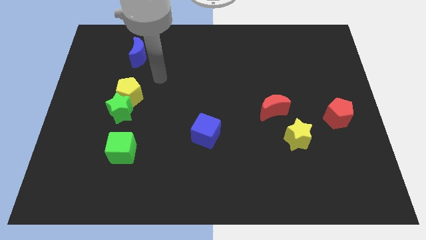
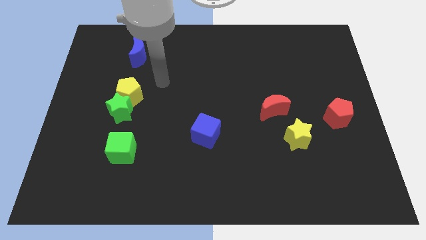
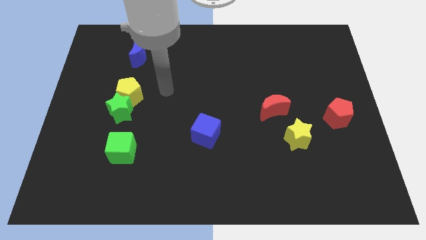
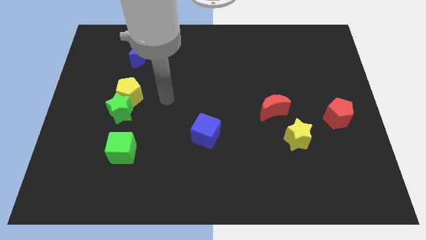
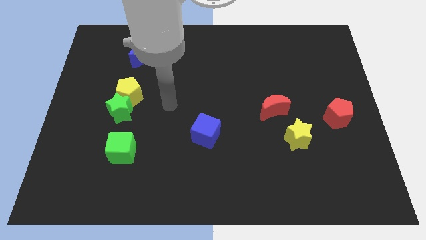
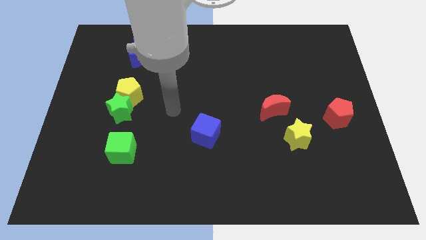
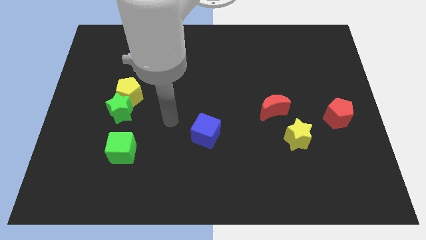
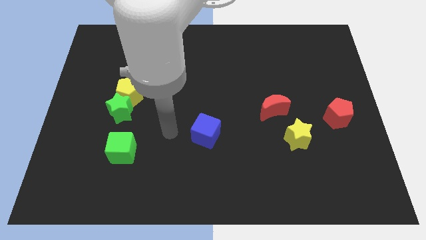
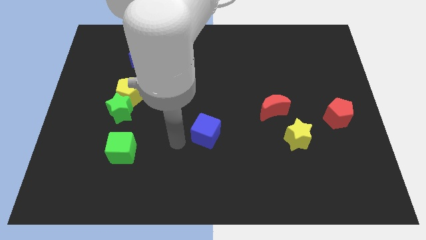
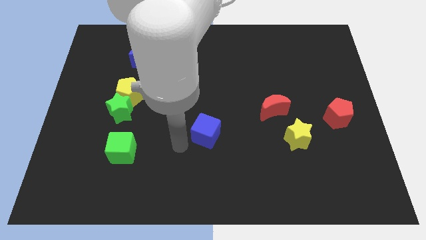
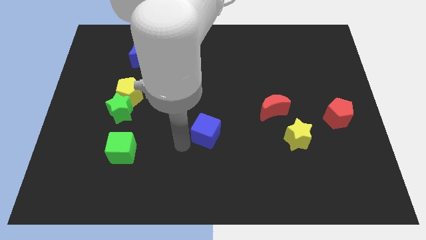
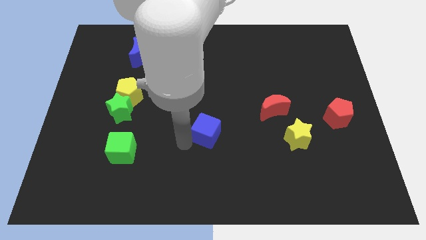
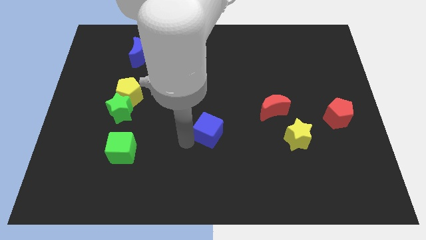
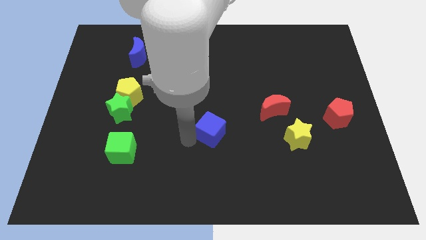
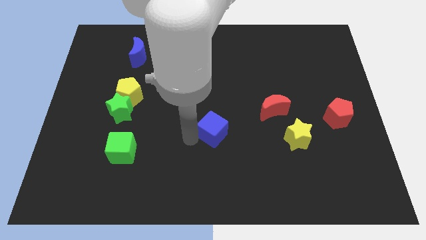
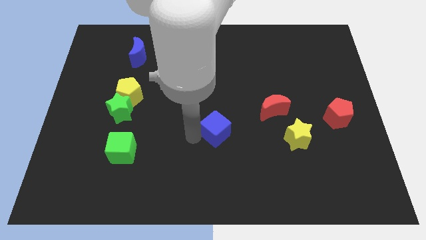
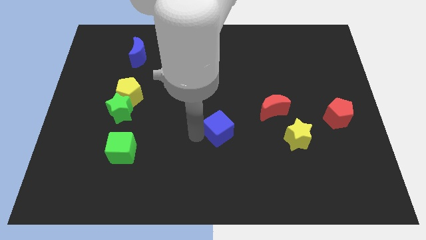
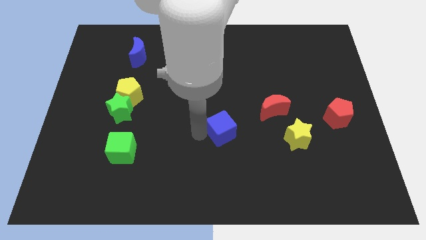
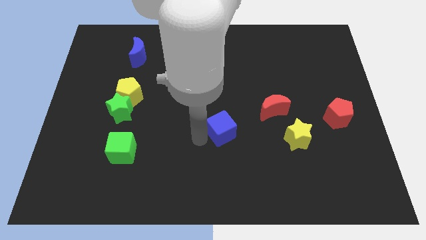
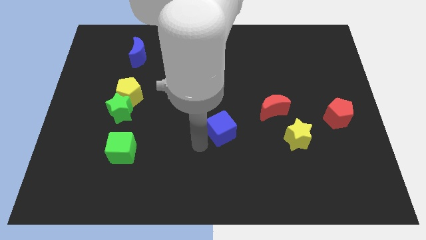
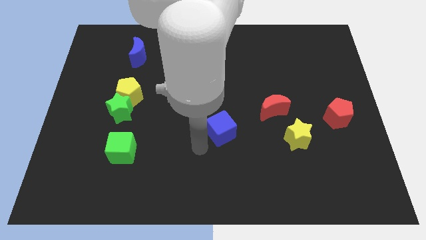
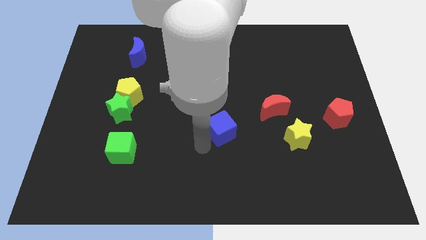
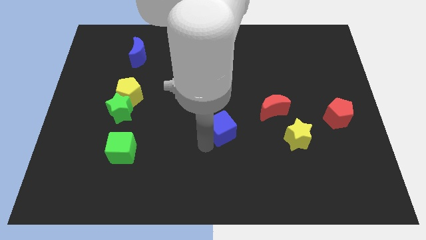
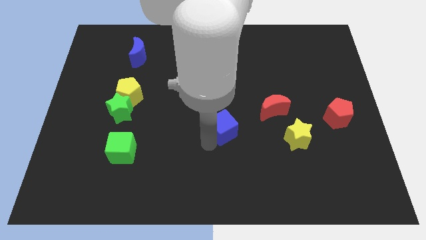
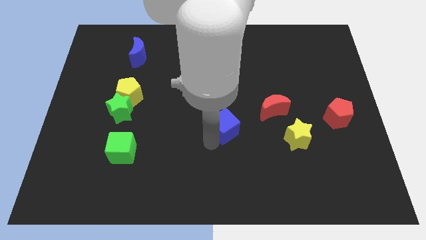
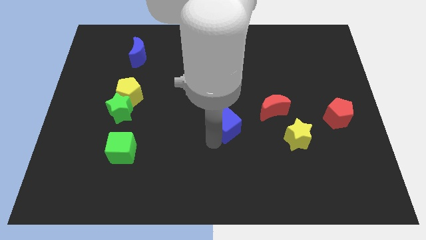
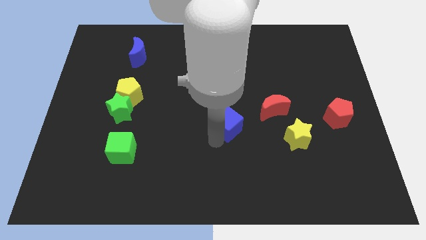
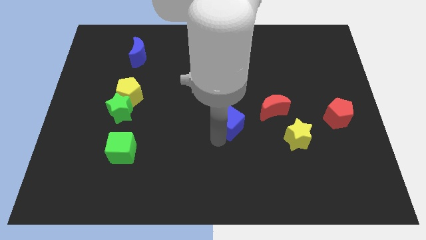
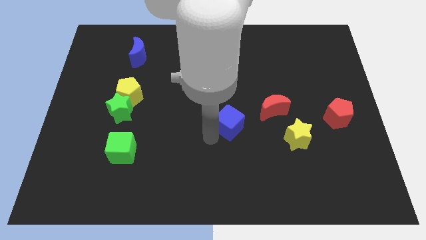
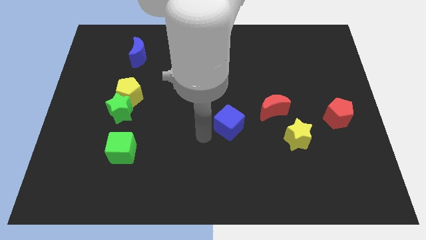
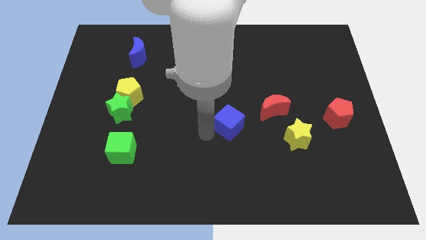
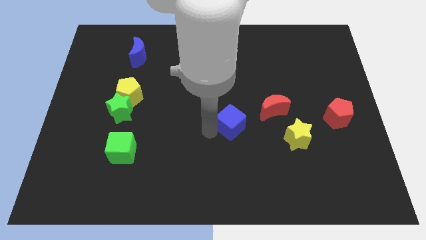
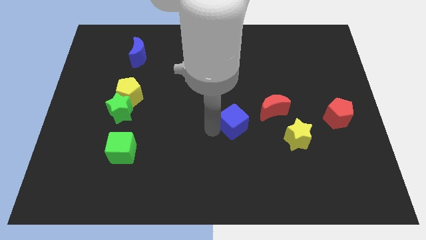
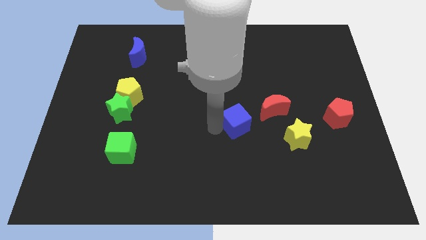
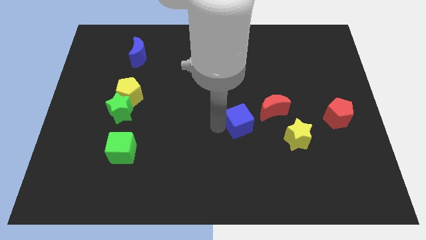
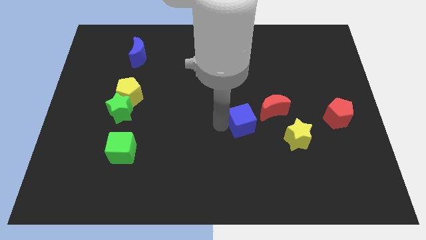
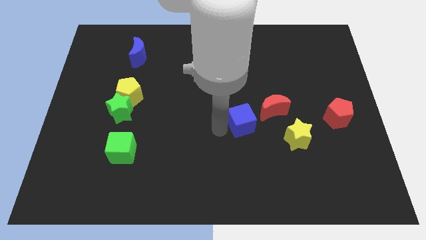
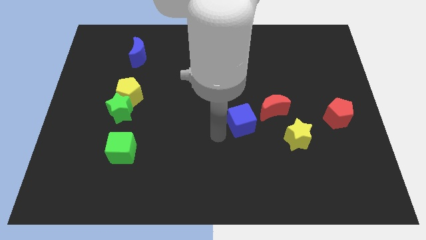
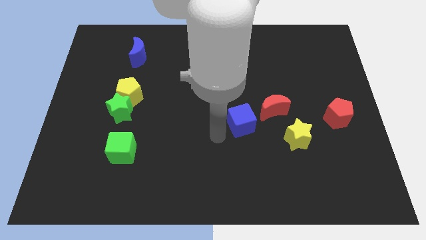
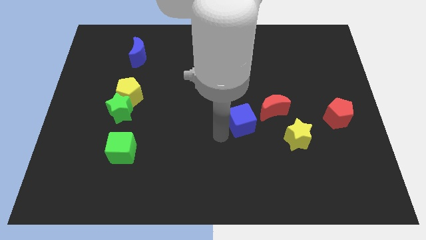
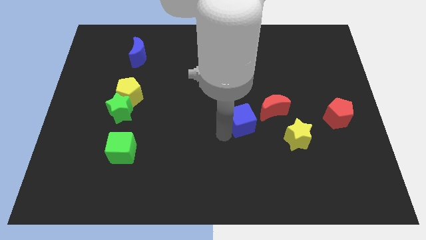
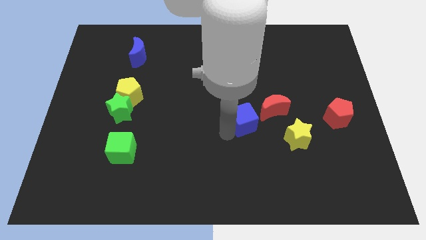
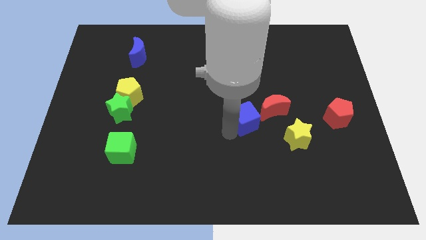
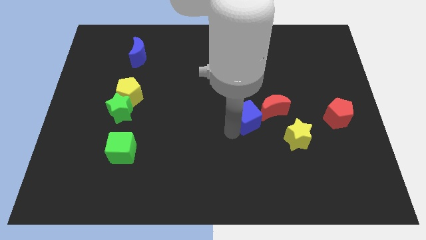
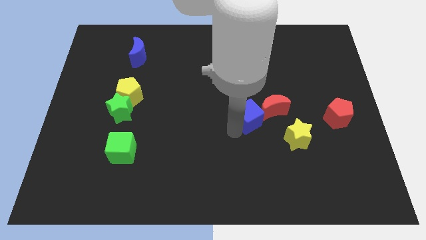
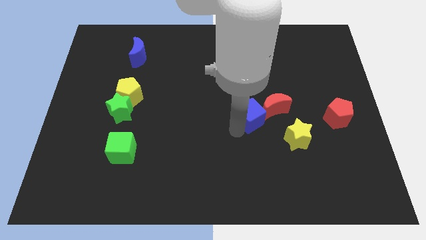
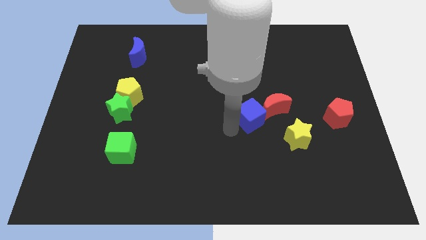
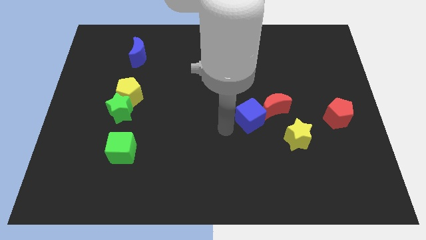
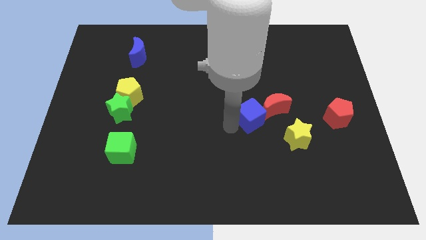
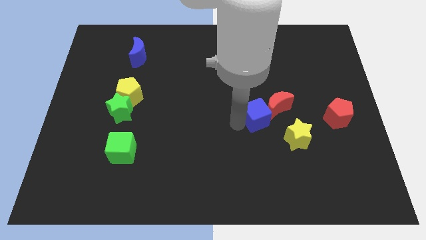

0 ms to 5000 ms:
move the blue cube to the red moon

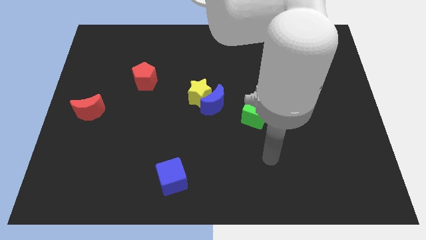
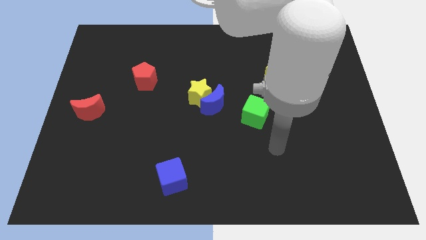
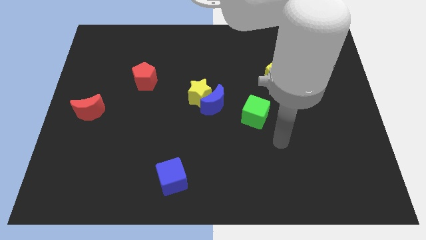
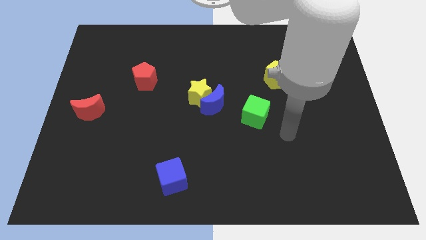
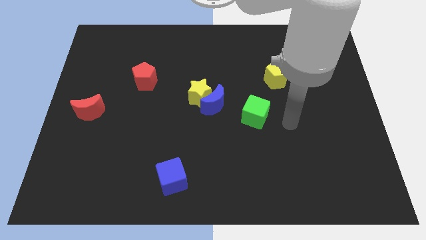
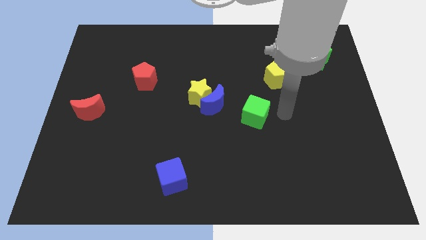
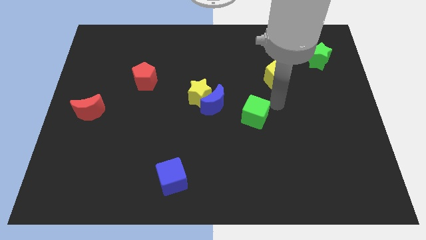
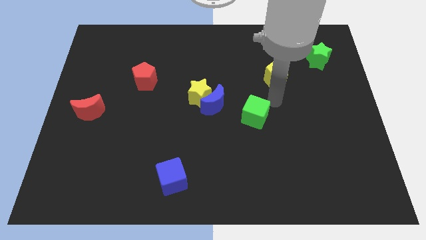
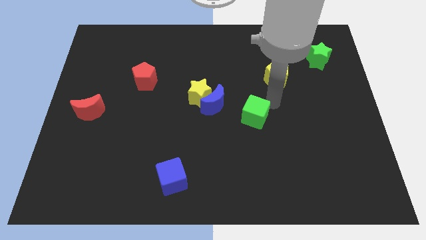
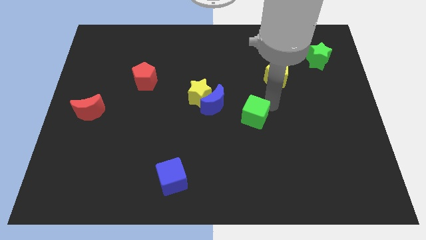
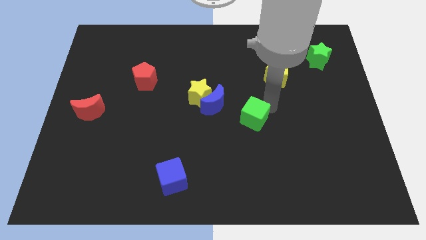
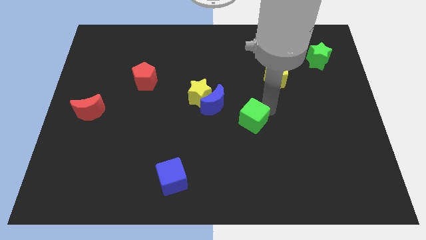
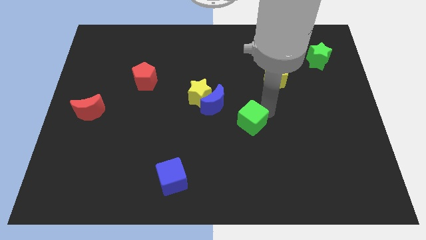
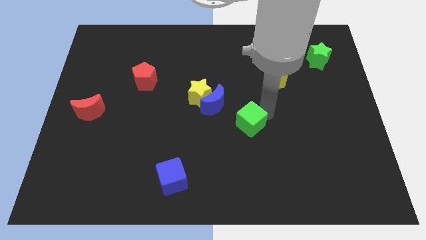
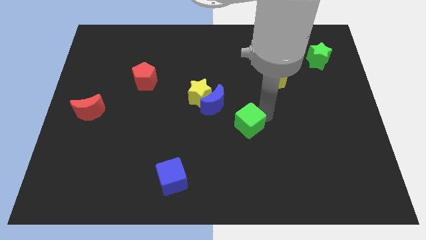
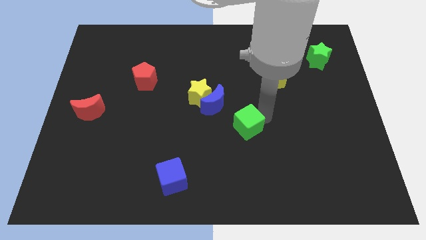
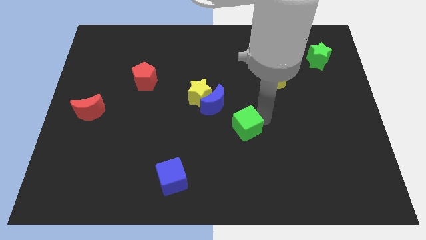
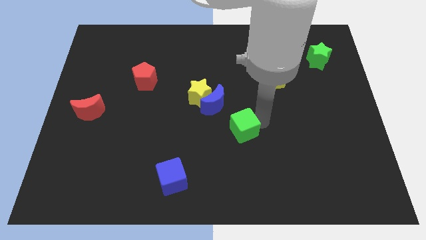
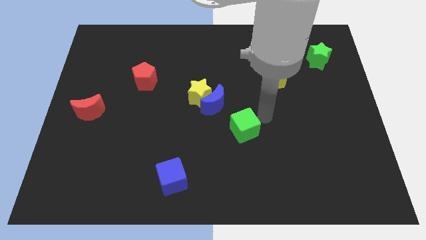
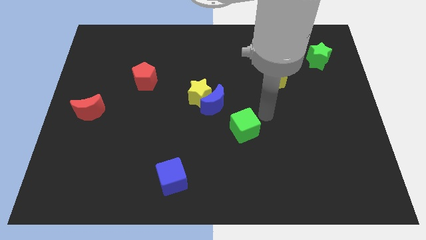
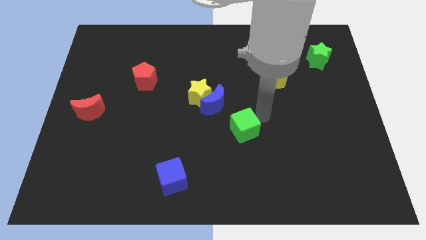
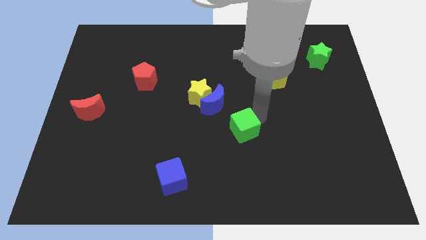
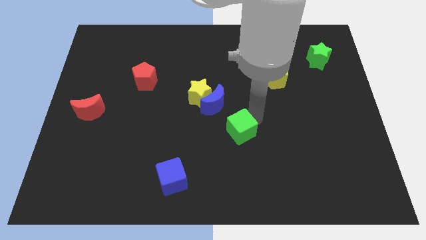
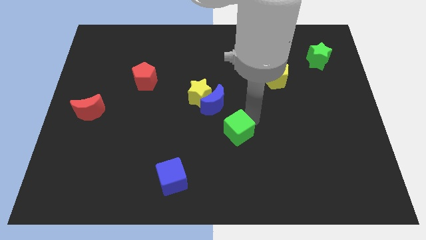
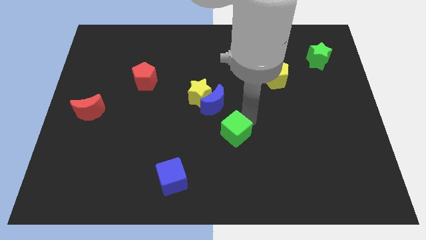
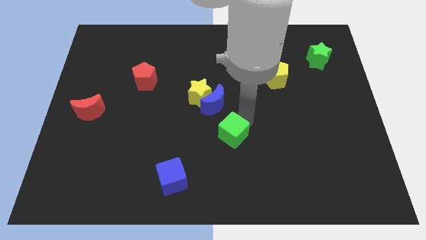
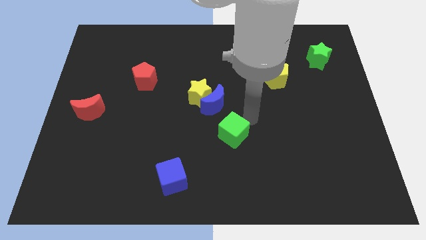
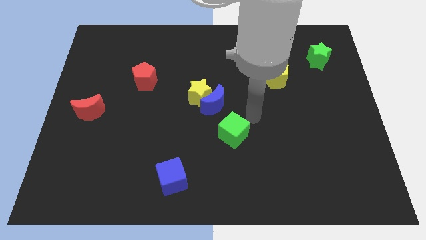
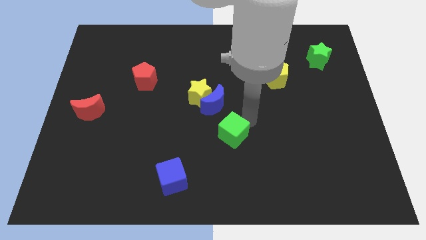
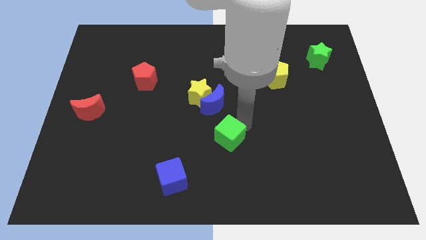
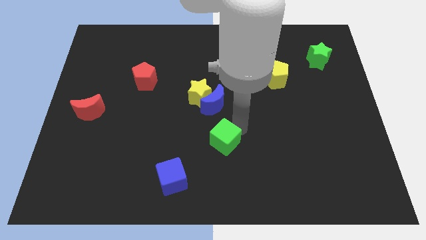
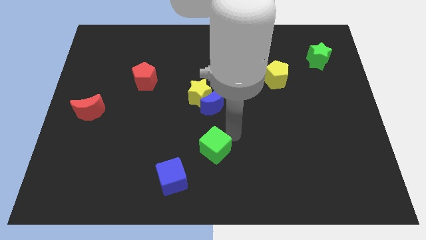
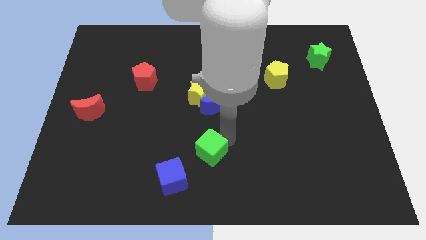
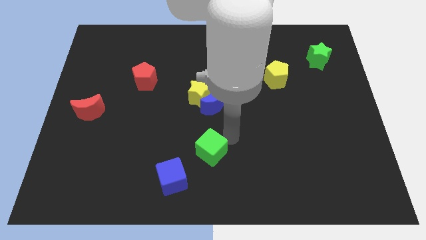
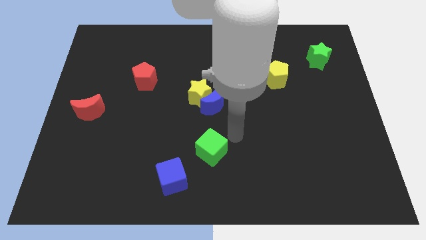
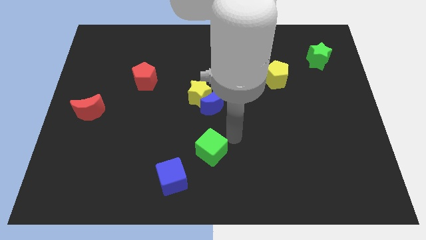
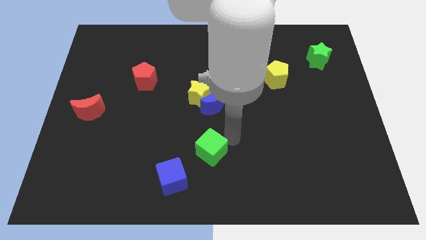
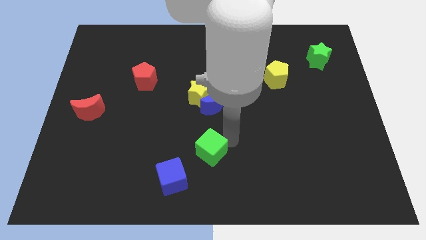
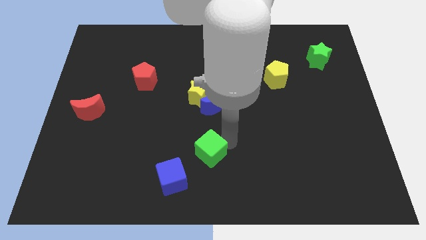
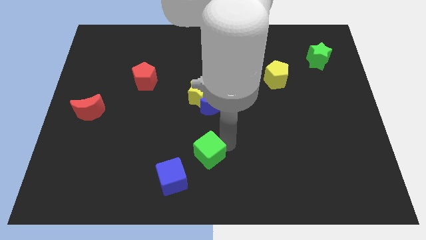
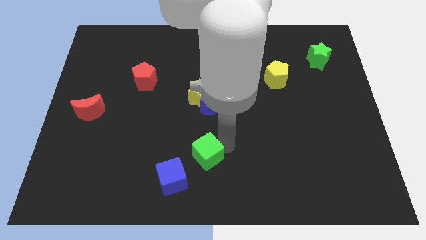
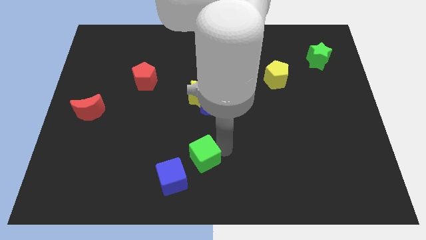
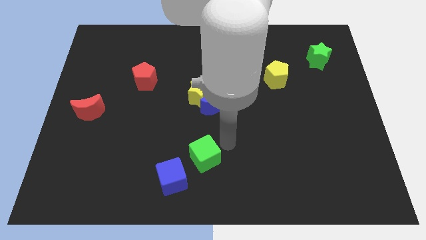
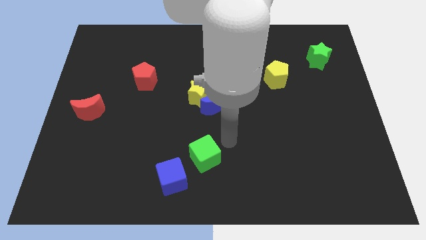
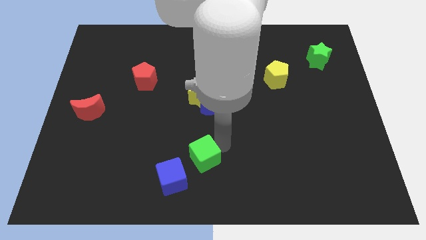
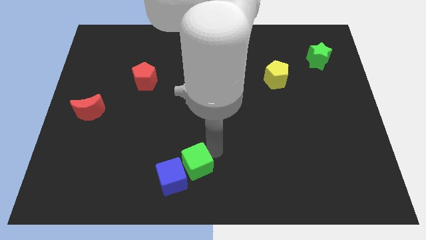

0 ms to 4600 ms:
put the green cube next to the blue cube
